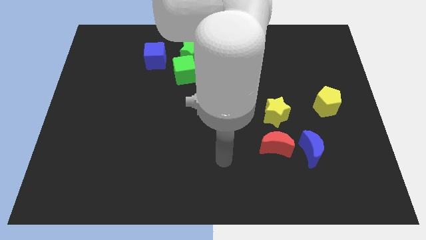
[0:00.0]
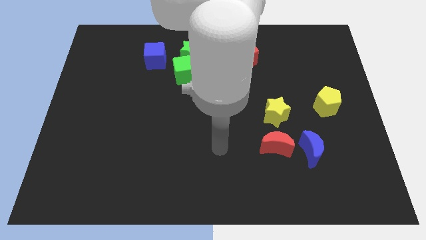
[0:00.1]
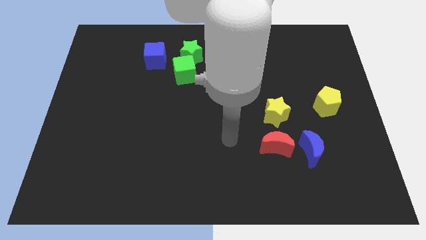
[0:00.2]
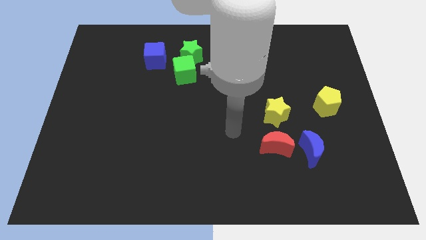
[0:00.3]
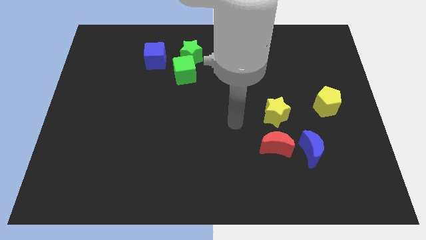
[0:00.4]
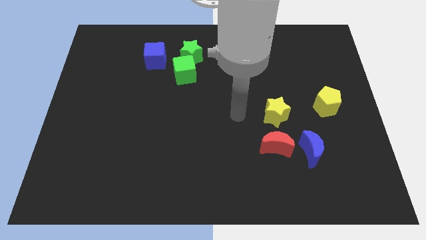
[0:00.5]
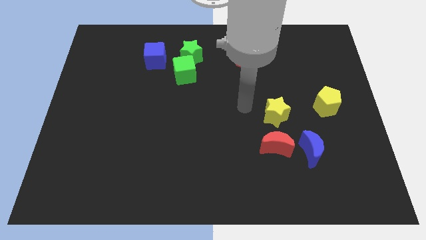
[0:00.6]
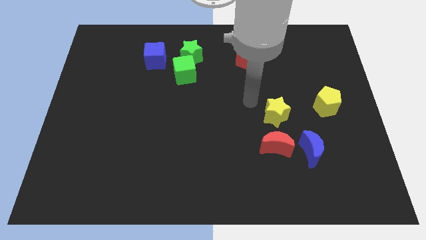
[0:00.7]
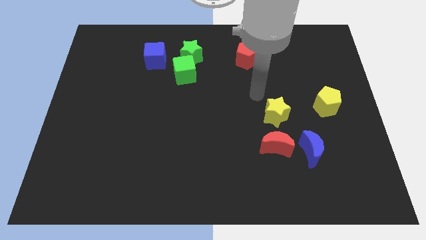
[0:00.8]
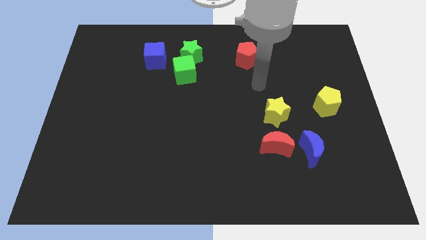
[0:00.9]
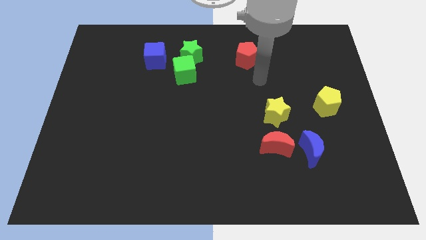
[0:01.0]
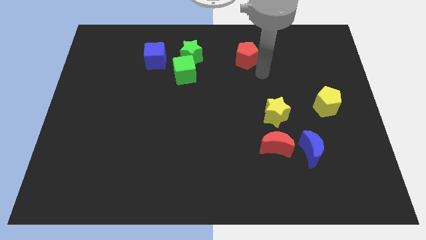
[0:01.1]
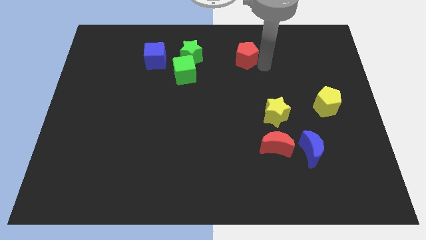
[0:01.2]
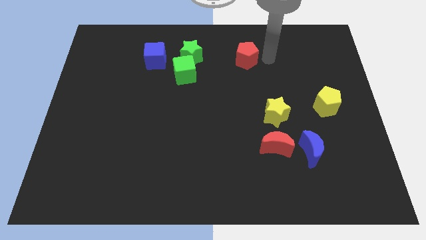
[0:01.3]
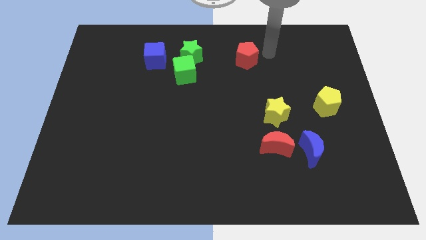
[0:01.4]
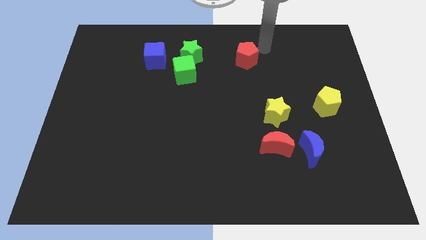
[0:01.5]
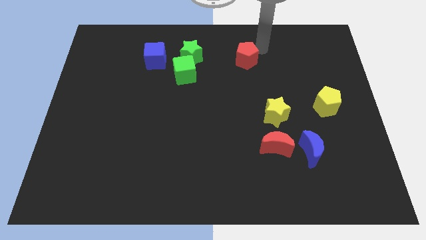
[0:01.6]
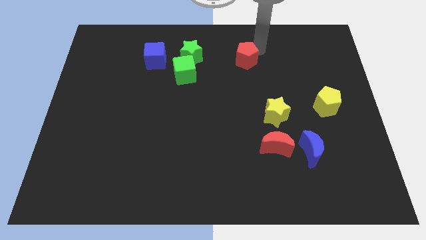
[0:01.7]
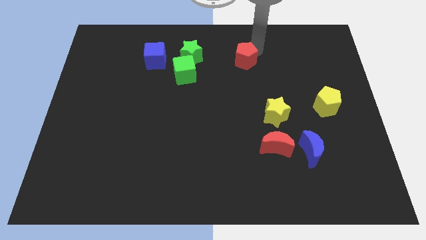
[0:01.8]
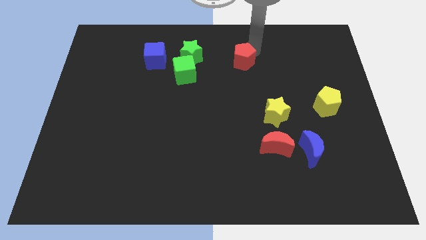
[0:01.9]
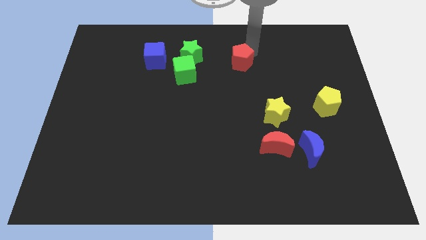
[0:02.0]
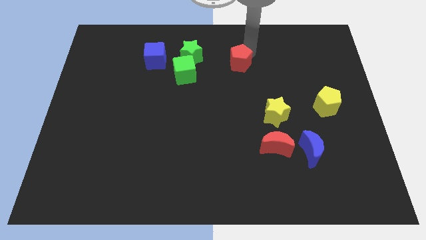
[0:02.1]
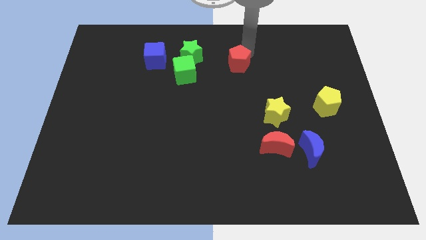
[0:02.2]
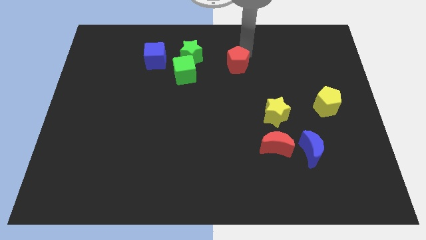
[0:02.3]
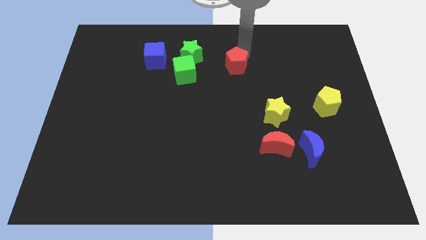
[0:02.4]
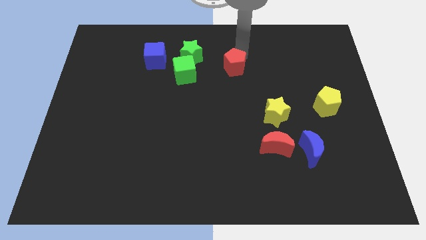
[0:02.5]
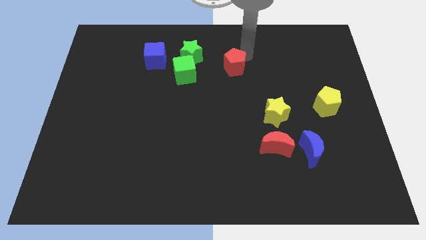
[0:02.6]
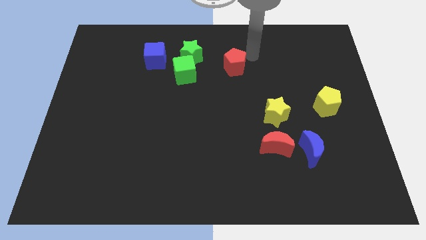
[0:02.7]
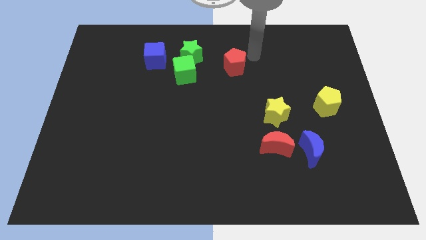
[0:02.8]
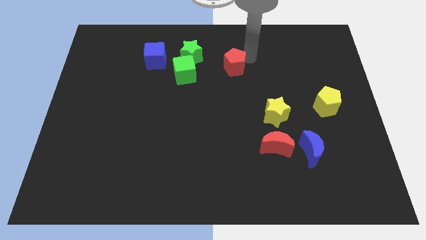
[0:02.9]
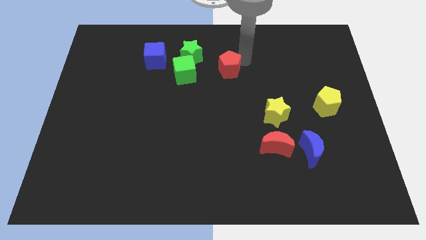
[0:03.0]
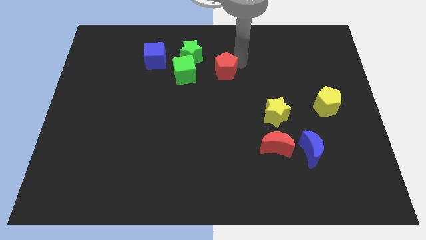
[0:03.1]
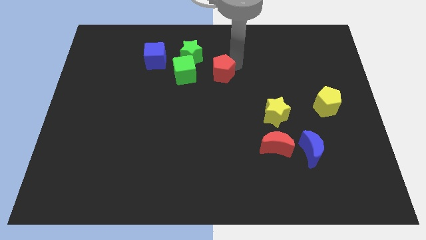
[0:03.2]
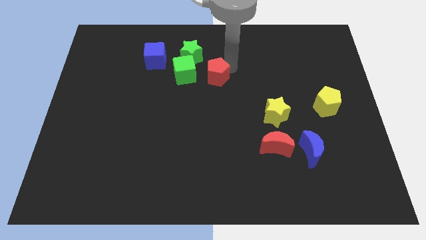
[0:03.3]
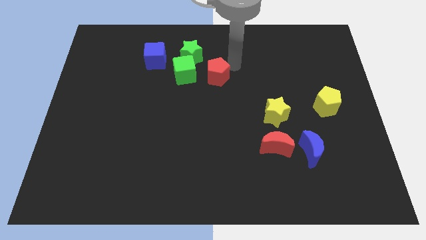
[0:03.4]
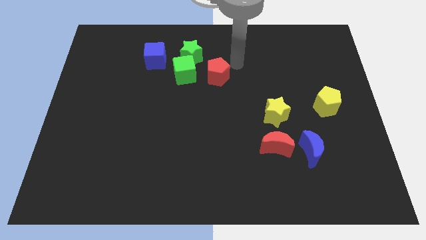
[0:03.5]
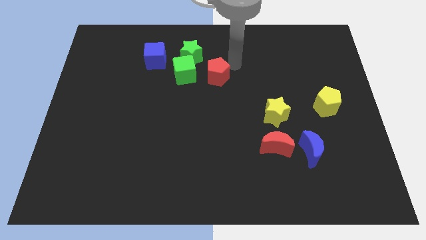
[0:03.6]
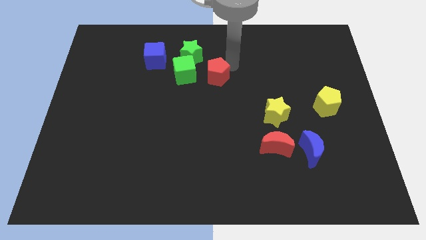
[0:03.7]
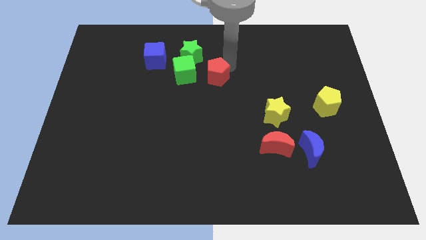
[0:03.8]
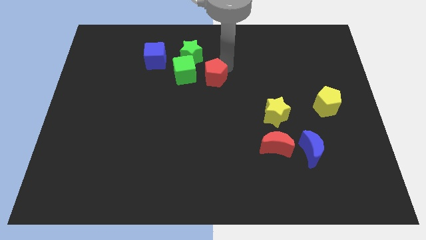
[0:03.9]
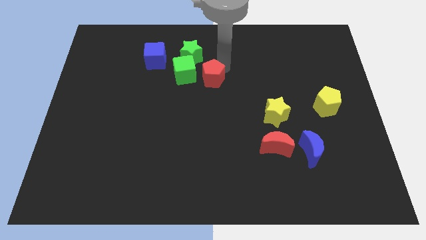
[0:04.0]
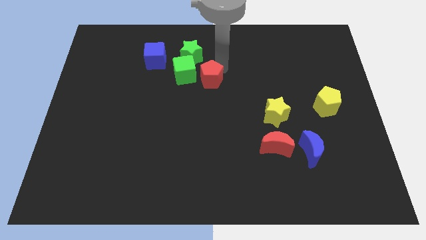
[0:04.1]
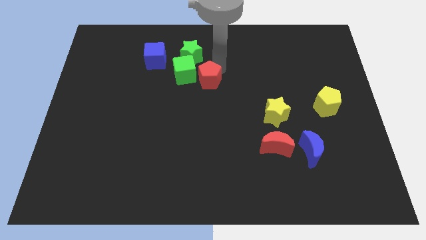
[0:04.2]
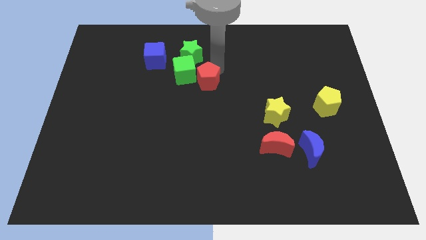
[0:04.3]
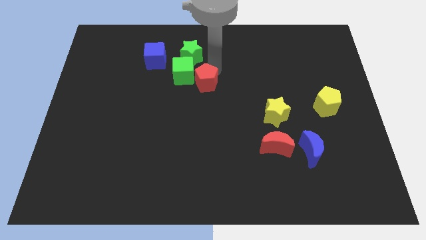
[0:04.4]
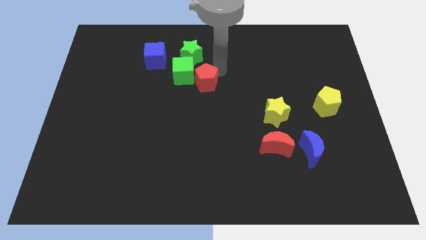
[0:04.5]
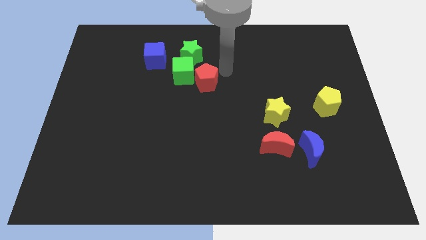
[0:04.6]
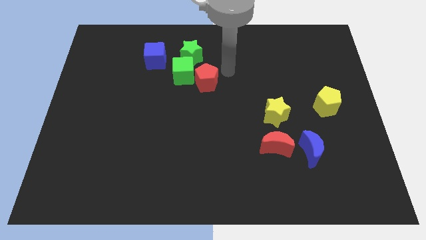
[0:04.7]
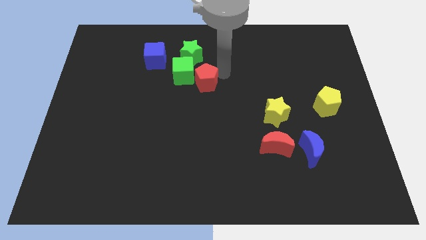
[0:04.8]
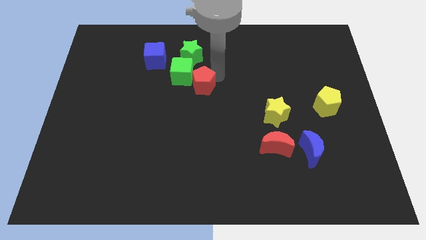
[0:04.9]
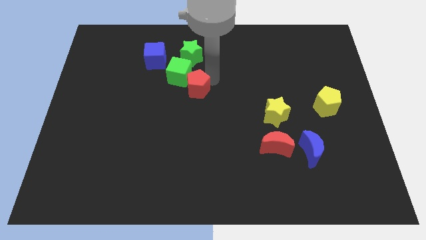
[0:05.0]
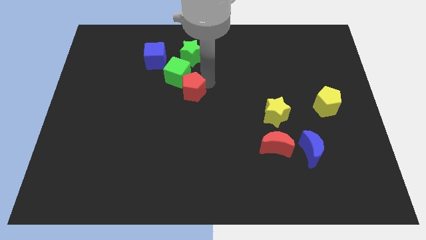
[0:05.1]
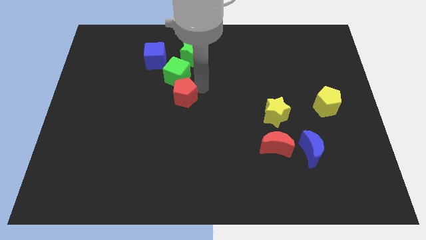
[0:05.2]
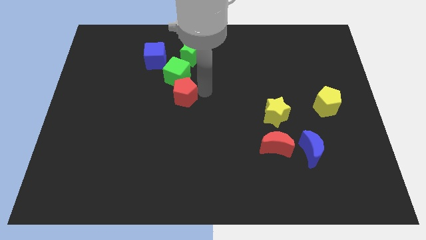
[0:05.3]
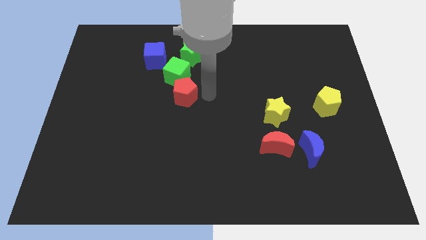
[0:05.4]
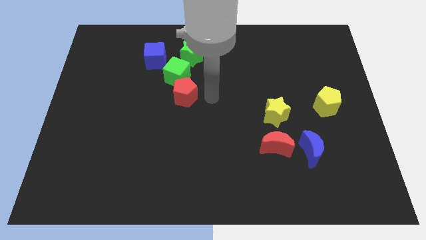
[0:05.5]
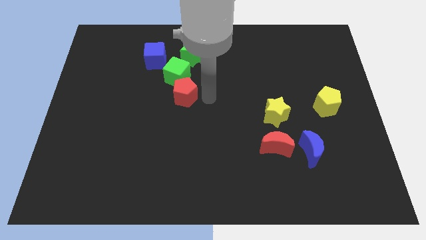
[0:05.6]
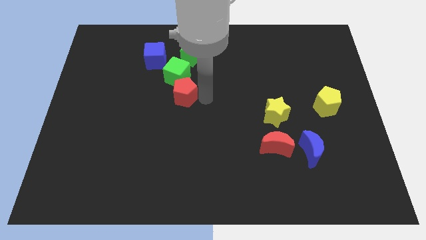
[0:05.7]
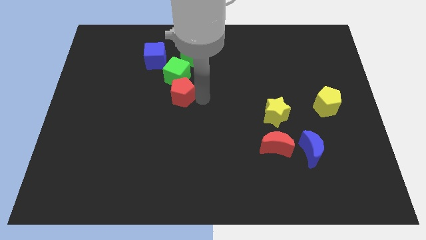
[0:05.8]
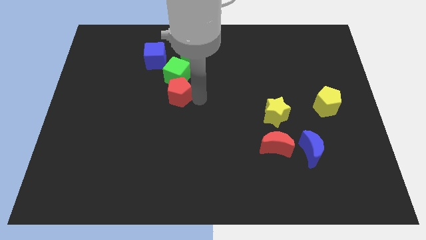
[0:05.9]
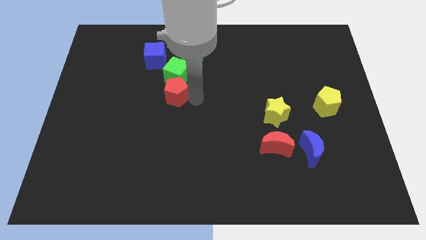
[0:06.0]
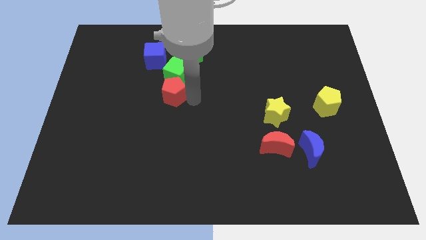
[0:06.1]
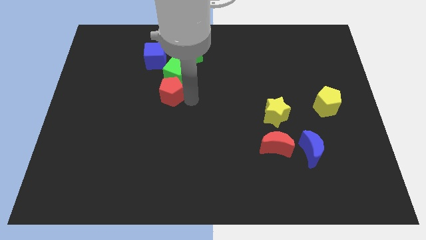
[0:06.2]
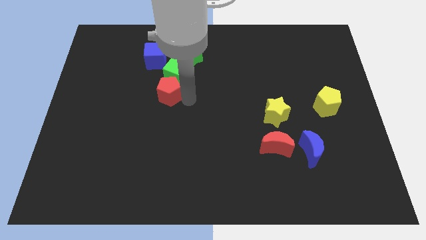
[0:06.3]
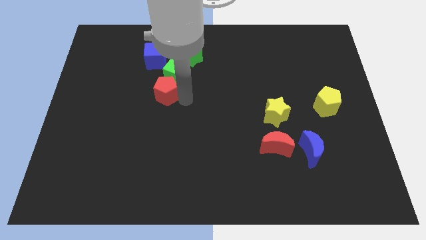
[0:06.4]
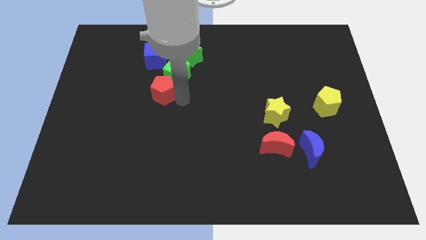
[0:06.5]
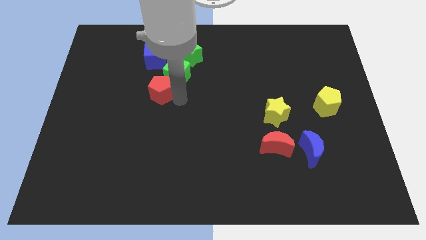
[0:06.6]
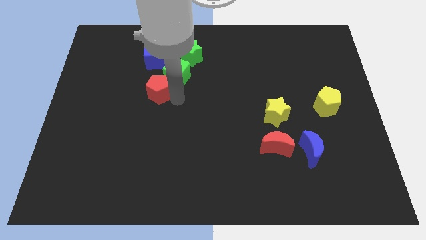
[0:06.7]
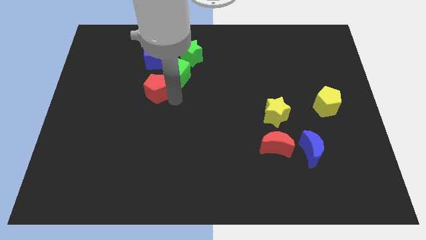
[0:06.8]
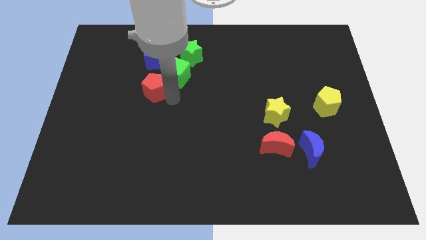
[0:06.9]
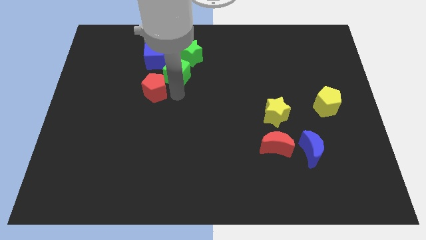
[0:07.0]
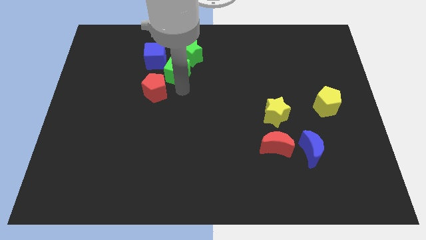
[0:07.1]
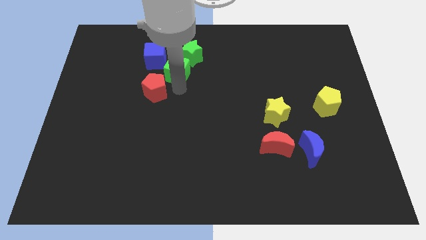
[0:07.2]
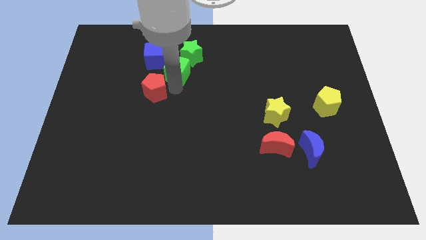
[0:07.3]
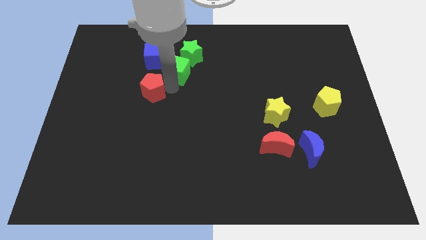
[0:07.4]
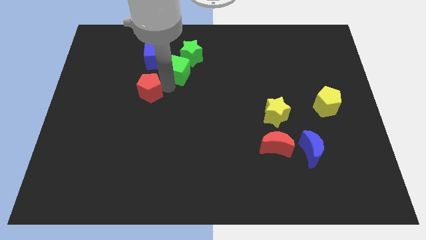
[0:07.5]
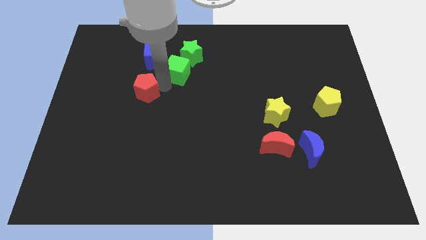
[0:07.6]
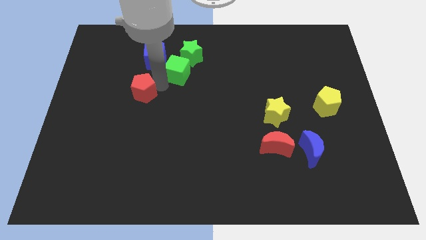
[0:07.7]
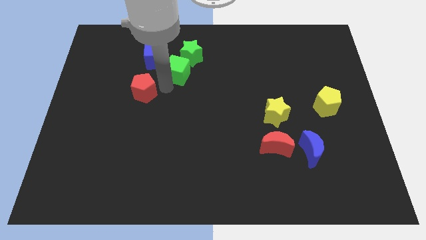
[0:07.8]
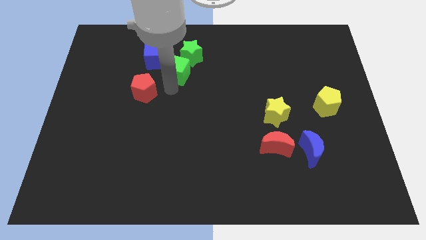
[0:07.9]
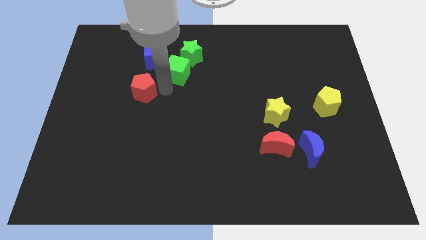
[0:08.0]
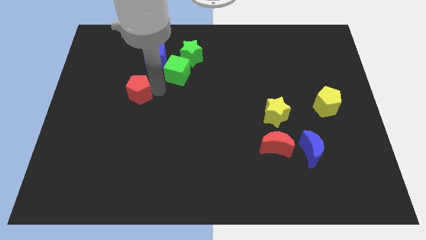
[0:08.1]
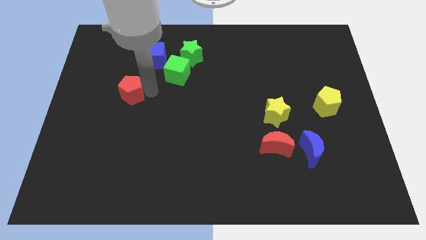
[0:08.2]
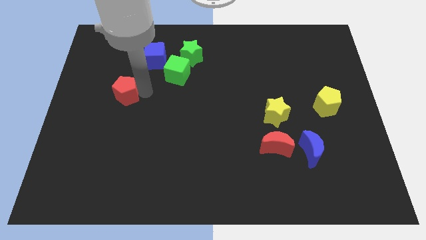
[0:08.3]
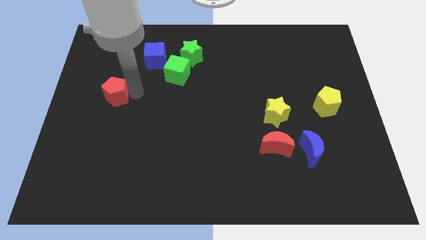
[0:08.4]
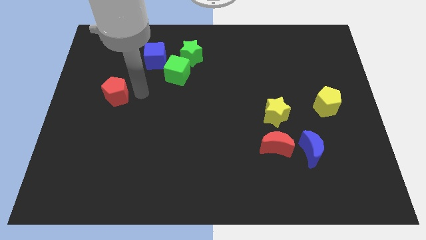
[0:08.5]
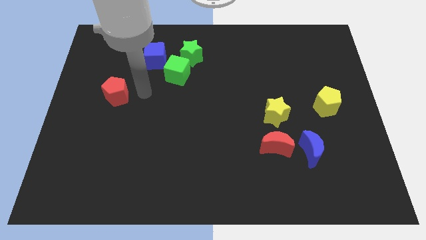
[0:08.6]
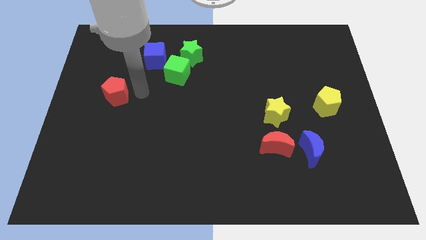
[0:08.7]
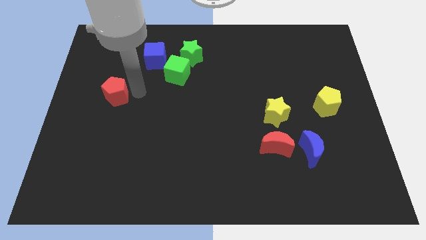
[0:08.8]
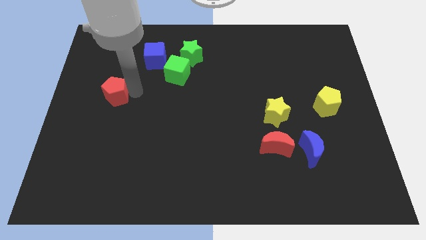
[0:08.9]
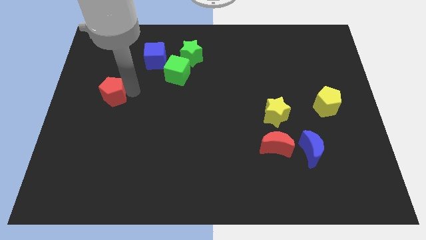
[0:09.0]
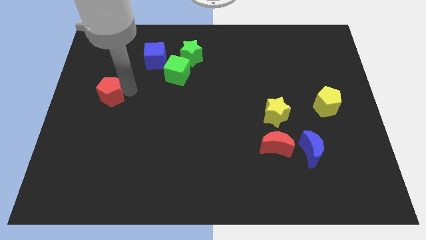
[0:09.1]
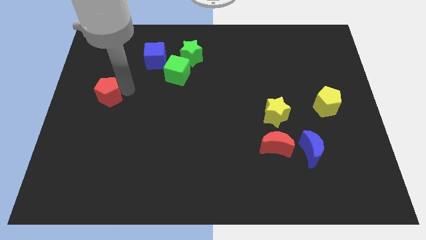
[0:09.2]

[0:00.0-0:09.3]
move the red pentagon to the left side of the board
